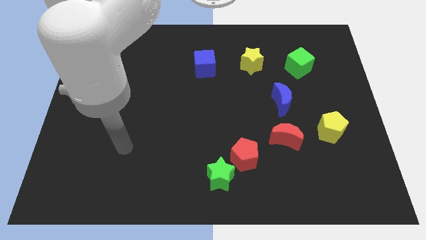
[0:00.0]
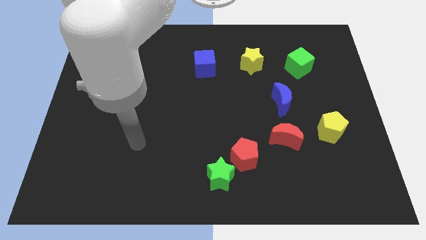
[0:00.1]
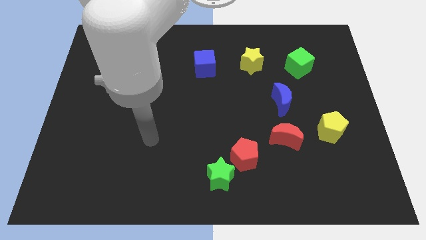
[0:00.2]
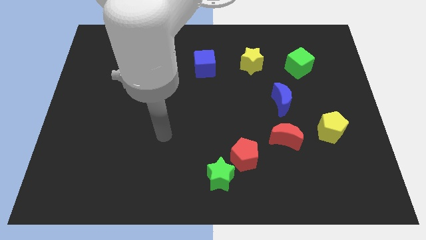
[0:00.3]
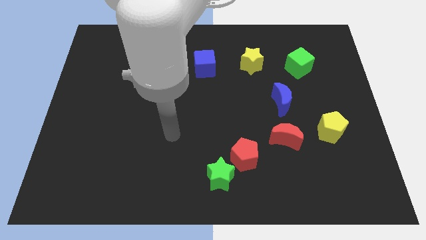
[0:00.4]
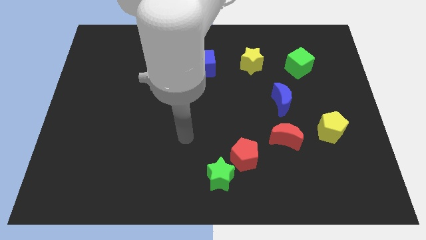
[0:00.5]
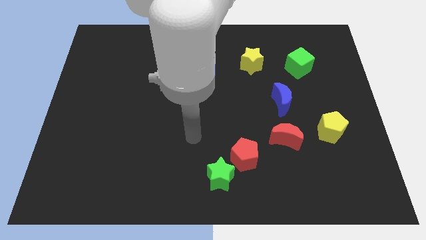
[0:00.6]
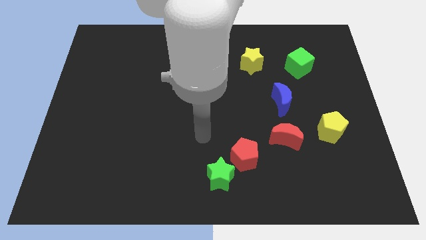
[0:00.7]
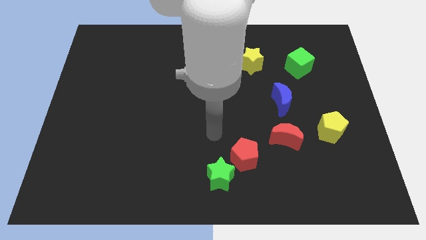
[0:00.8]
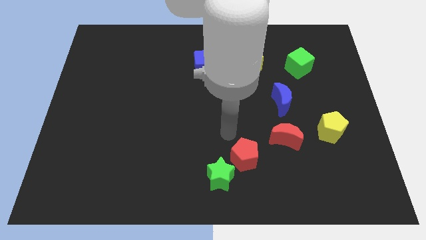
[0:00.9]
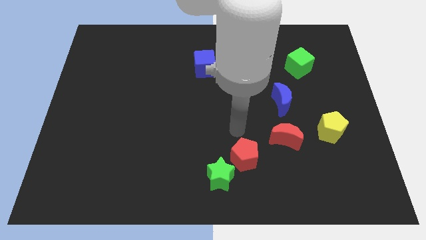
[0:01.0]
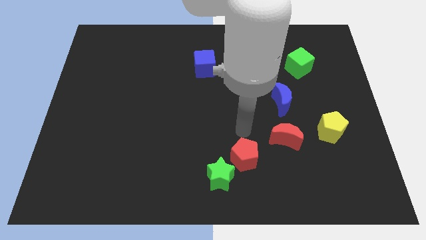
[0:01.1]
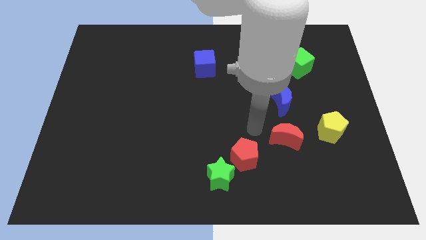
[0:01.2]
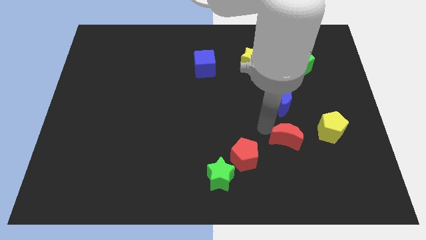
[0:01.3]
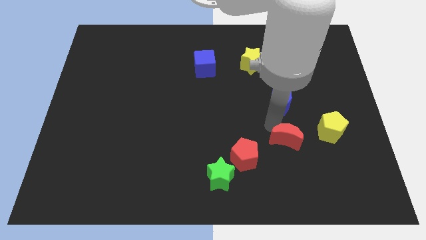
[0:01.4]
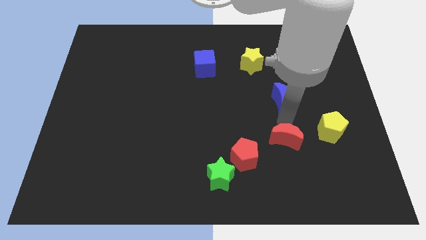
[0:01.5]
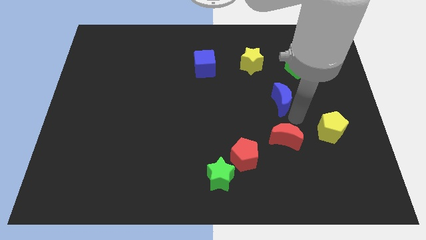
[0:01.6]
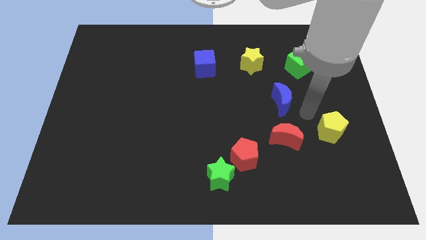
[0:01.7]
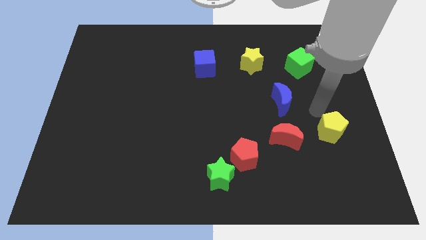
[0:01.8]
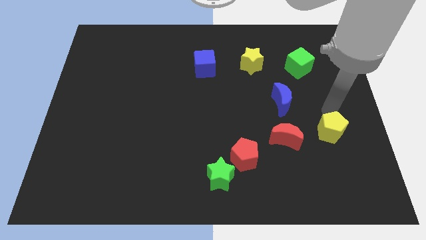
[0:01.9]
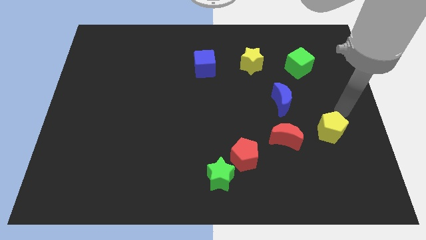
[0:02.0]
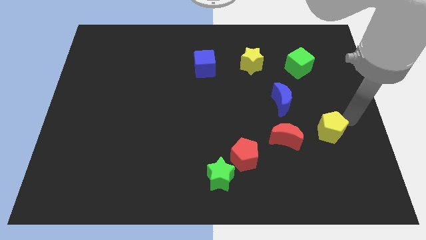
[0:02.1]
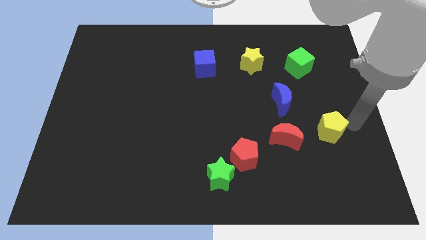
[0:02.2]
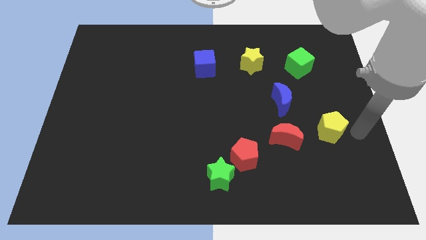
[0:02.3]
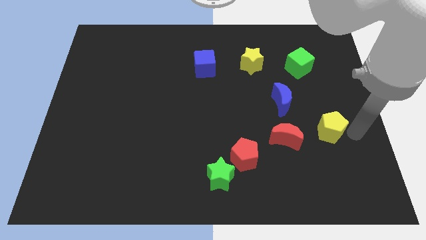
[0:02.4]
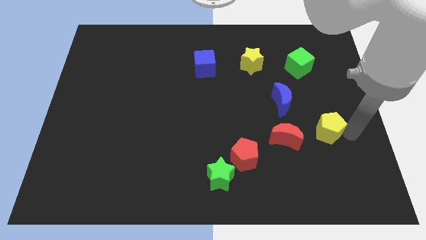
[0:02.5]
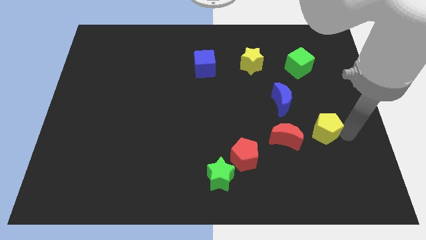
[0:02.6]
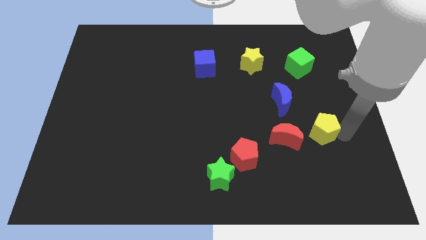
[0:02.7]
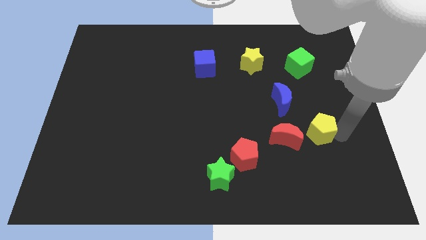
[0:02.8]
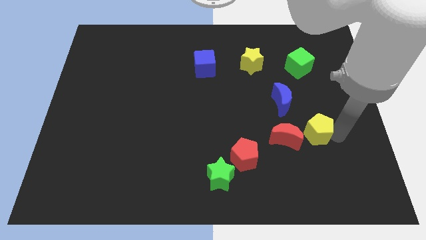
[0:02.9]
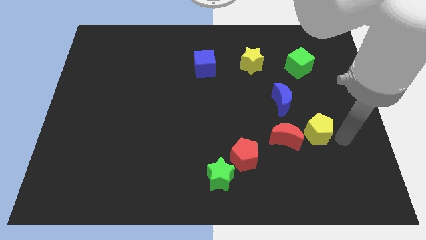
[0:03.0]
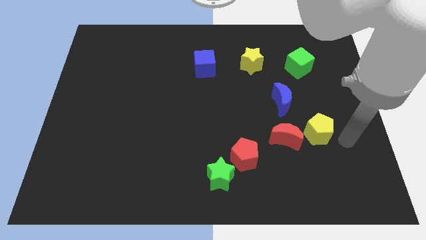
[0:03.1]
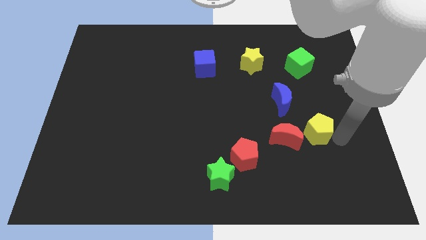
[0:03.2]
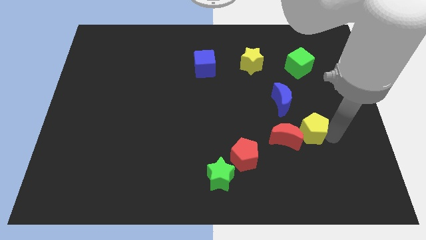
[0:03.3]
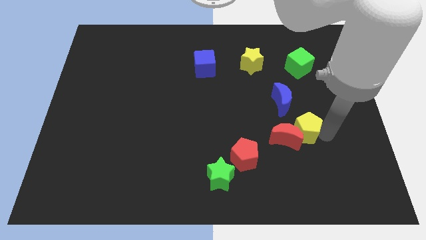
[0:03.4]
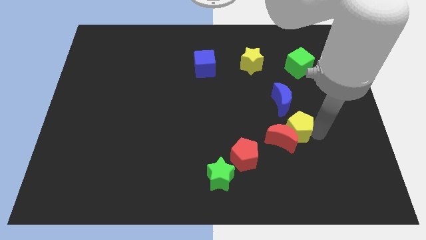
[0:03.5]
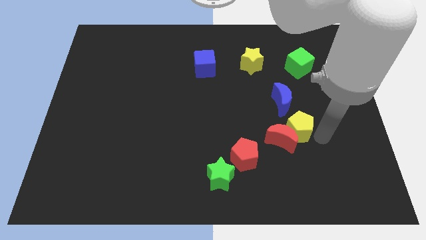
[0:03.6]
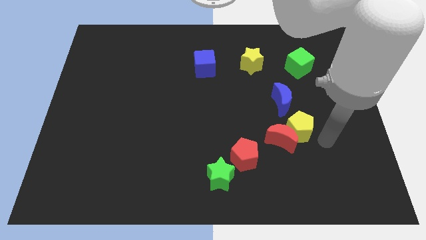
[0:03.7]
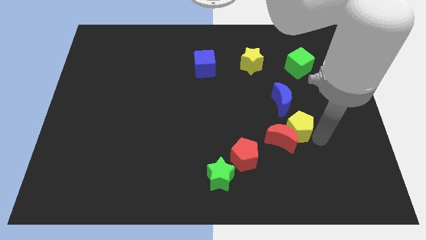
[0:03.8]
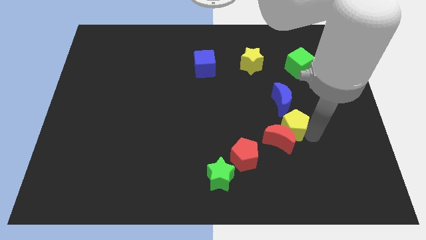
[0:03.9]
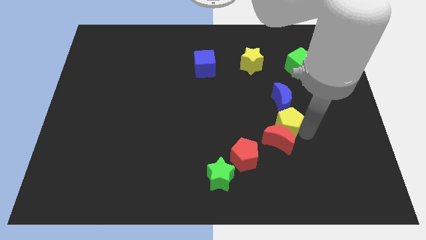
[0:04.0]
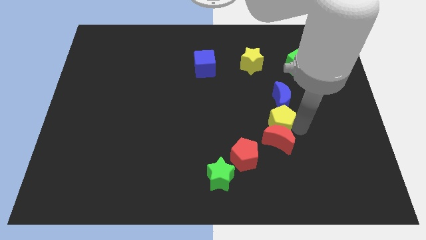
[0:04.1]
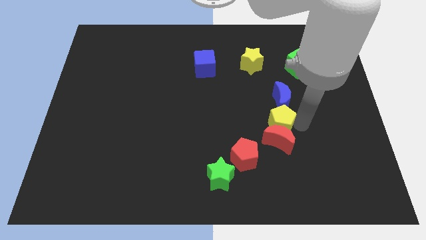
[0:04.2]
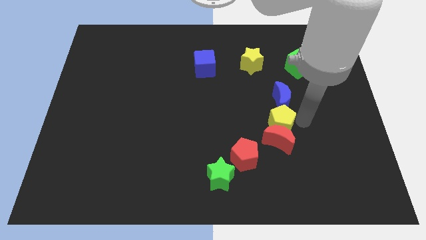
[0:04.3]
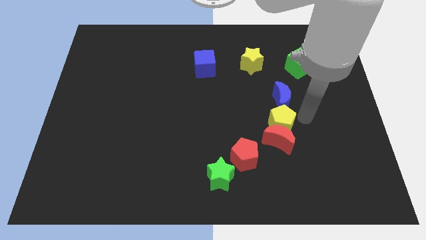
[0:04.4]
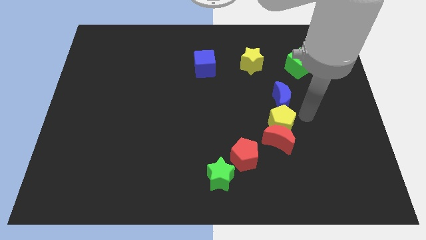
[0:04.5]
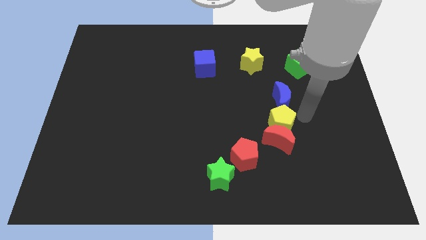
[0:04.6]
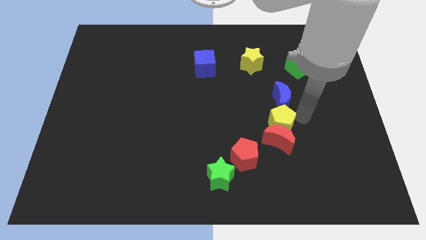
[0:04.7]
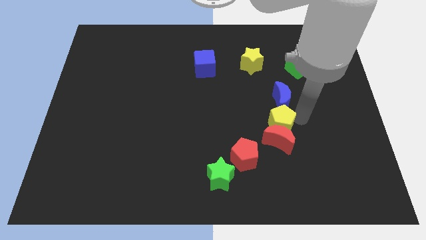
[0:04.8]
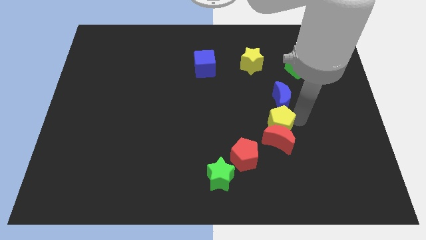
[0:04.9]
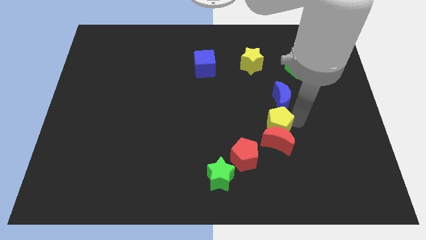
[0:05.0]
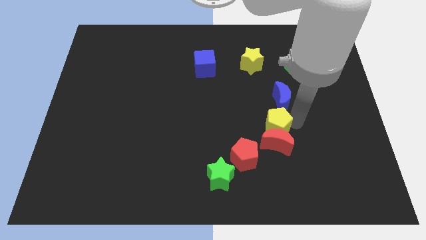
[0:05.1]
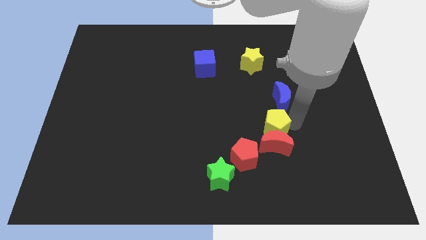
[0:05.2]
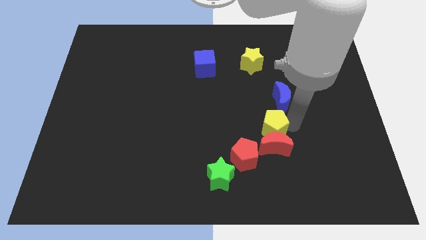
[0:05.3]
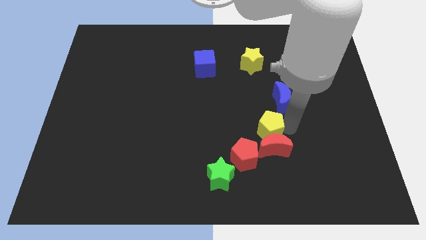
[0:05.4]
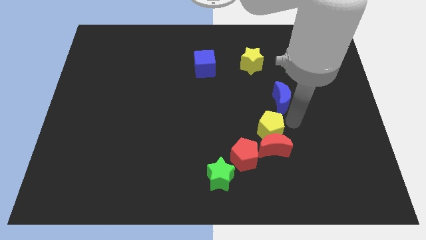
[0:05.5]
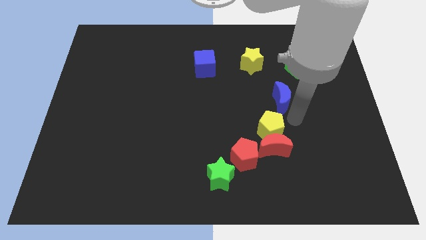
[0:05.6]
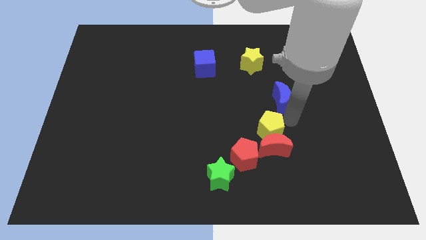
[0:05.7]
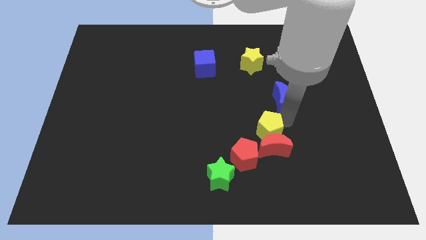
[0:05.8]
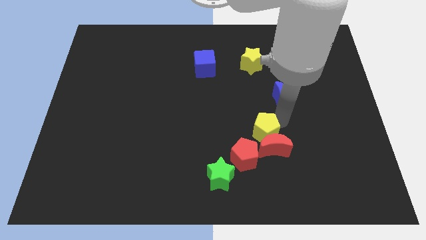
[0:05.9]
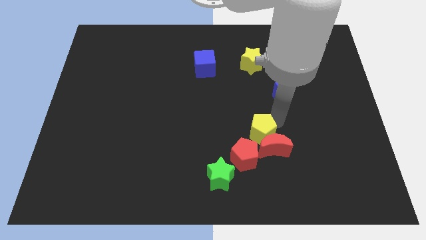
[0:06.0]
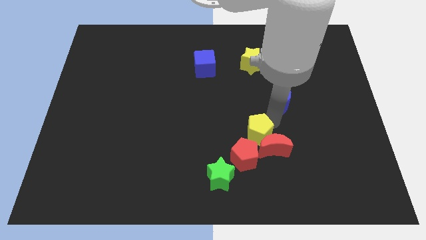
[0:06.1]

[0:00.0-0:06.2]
slide the yellow pentagon to the left of the red moon

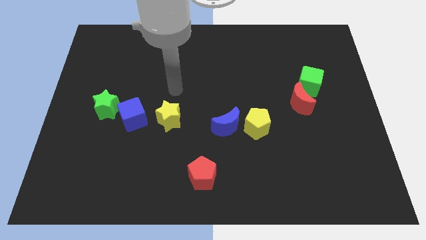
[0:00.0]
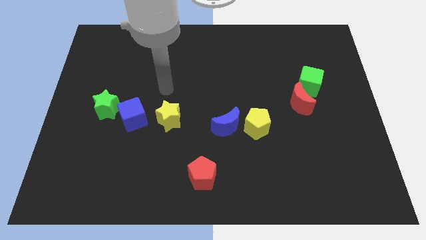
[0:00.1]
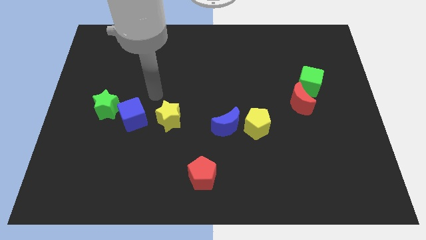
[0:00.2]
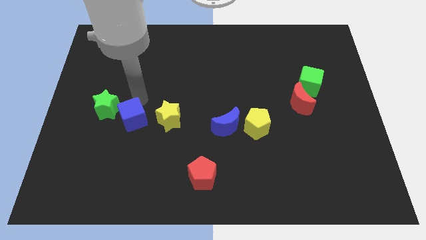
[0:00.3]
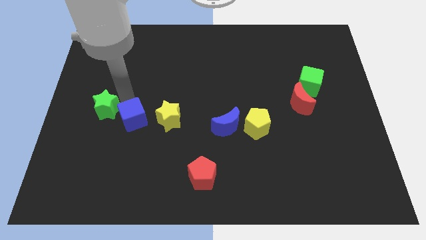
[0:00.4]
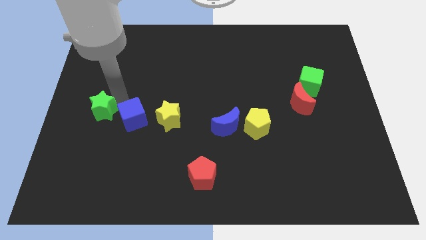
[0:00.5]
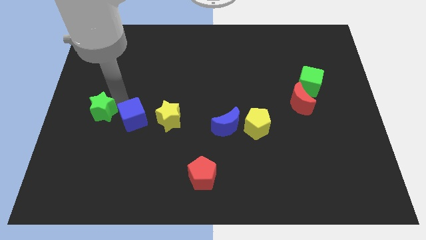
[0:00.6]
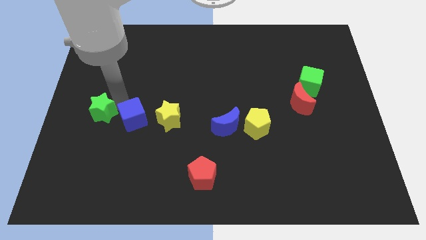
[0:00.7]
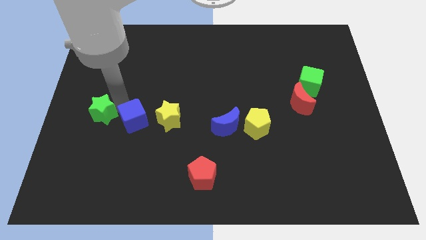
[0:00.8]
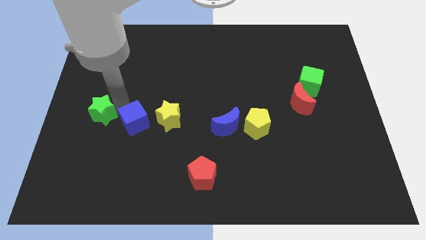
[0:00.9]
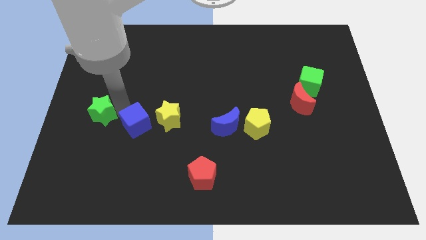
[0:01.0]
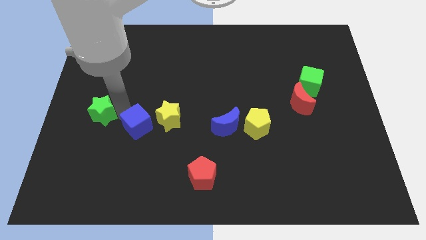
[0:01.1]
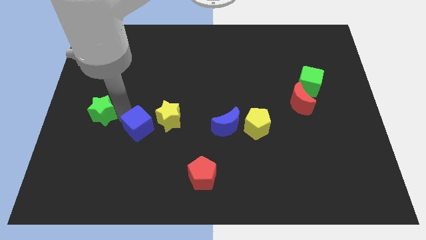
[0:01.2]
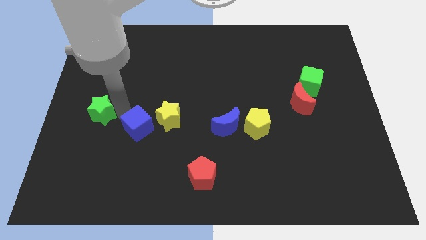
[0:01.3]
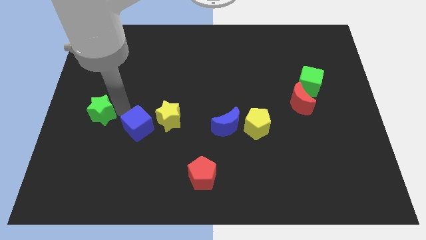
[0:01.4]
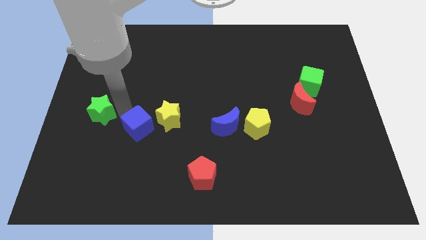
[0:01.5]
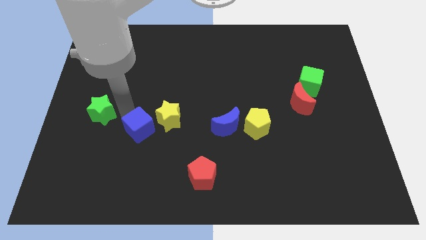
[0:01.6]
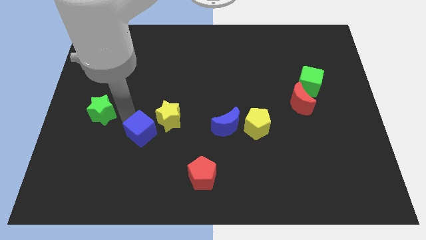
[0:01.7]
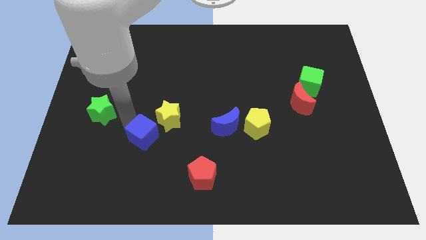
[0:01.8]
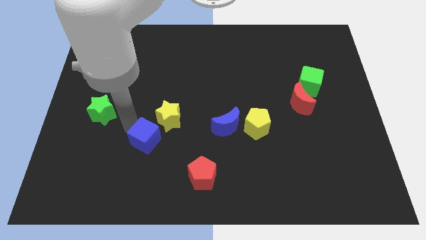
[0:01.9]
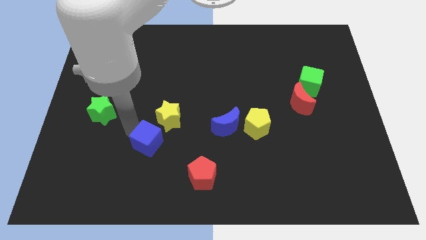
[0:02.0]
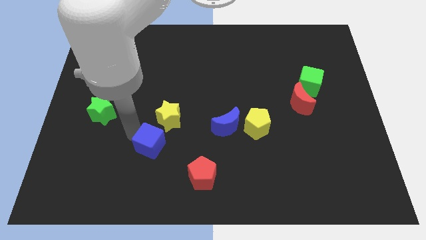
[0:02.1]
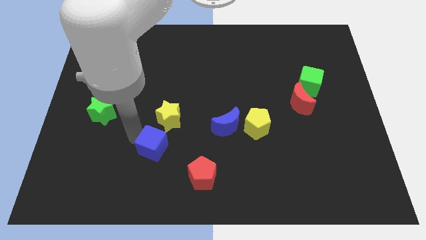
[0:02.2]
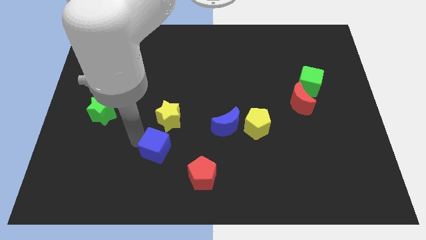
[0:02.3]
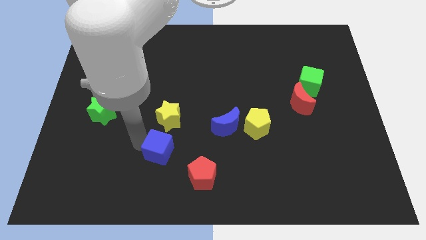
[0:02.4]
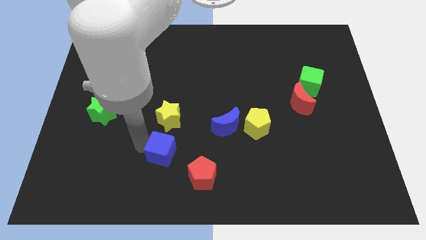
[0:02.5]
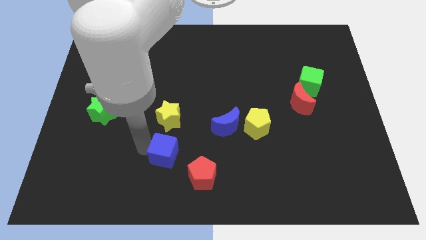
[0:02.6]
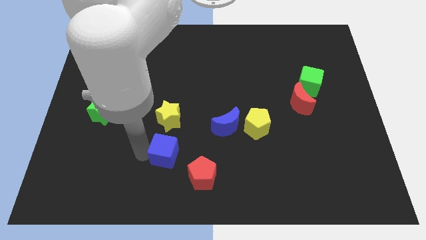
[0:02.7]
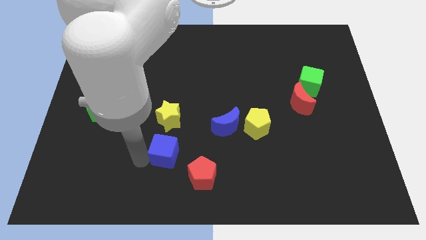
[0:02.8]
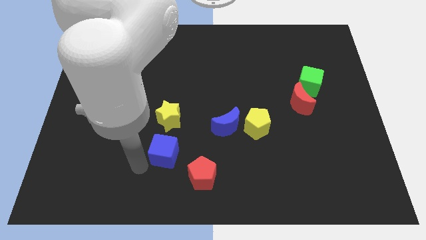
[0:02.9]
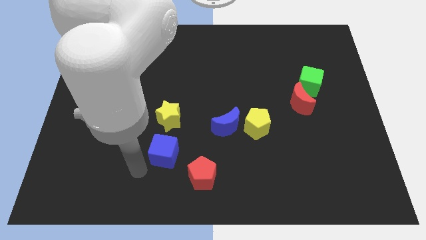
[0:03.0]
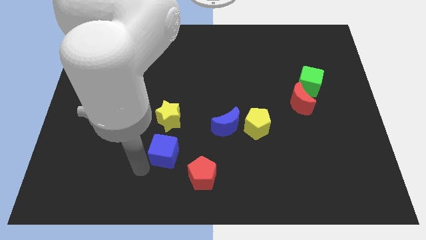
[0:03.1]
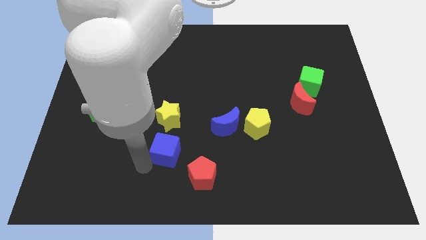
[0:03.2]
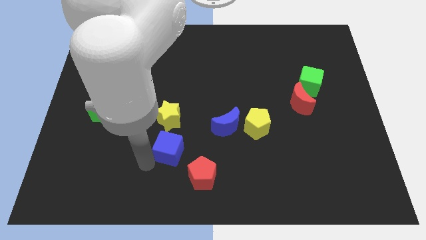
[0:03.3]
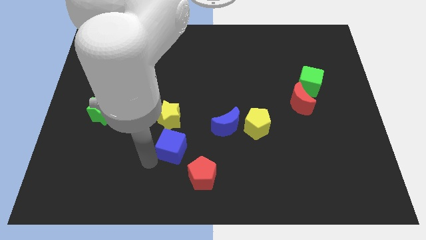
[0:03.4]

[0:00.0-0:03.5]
put the blue cube to the bottom right of the yellow star
